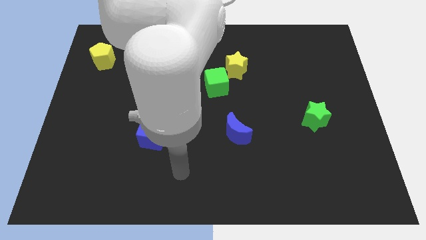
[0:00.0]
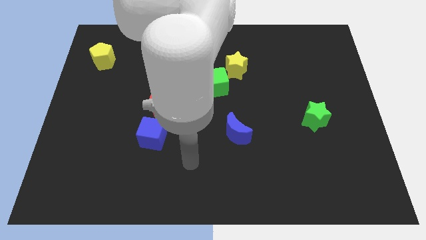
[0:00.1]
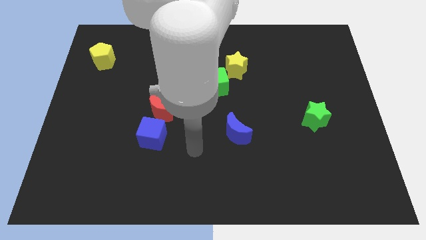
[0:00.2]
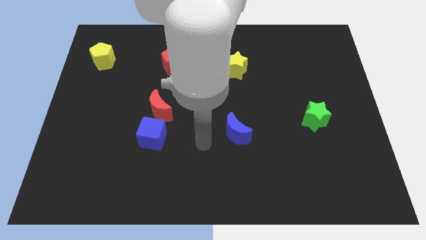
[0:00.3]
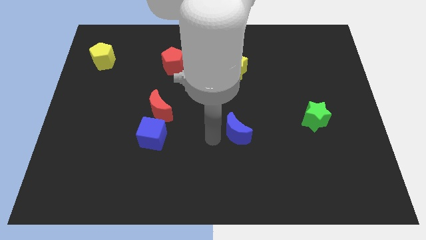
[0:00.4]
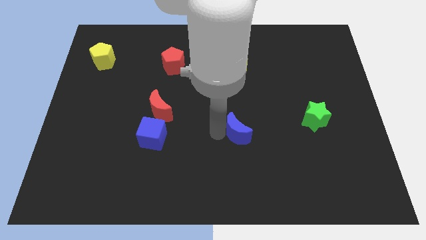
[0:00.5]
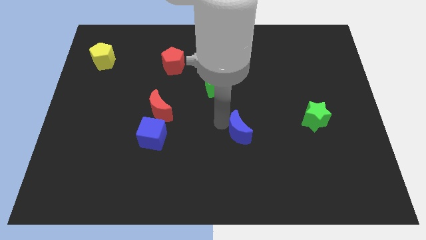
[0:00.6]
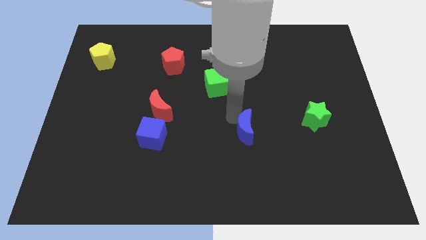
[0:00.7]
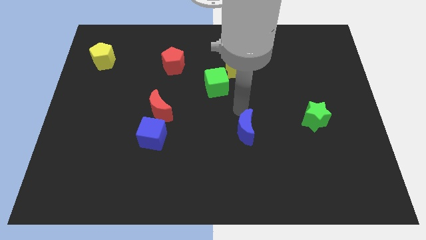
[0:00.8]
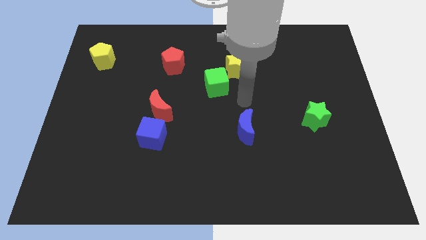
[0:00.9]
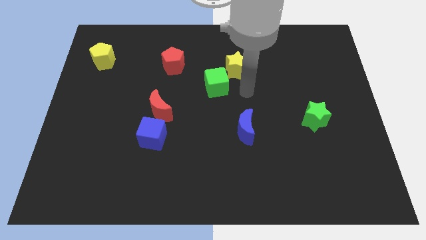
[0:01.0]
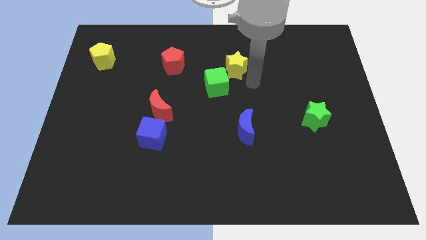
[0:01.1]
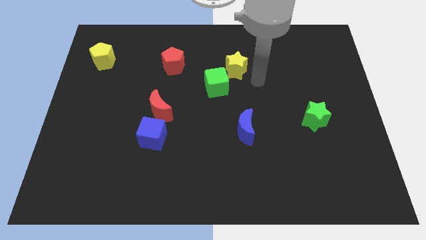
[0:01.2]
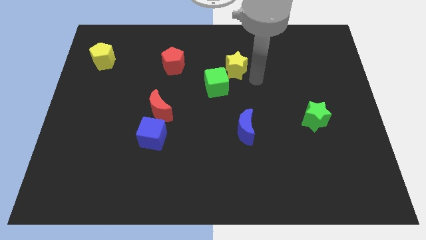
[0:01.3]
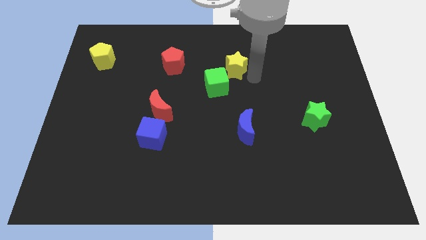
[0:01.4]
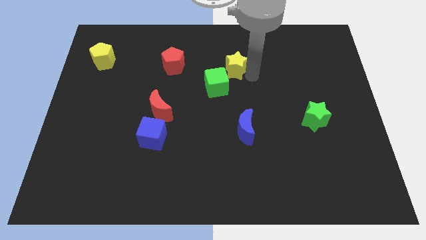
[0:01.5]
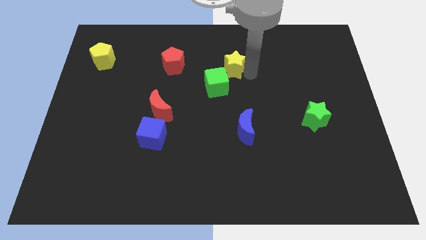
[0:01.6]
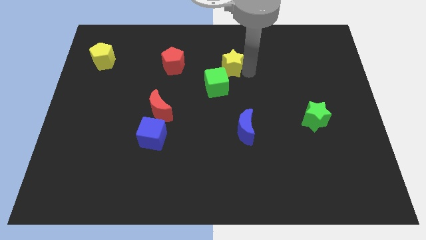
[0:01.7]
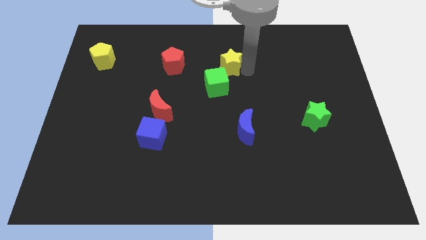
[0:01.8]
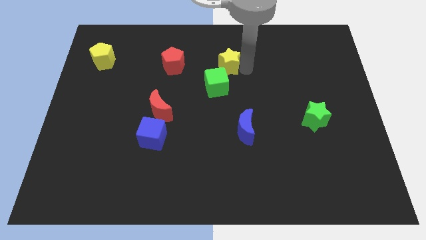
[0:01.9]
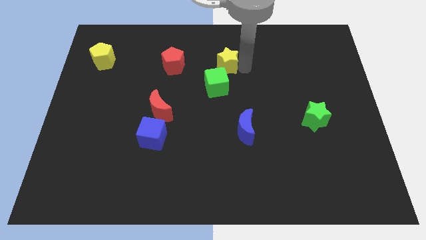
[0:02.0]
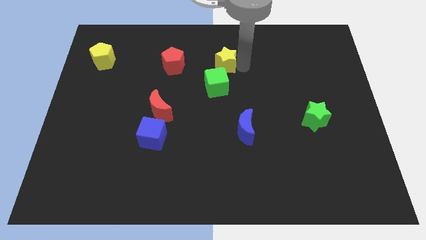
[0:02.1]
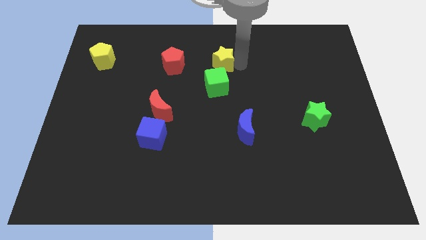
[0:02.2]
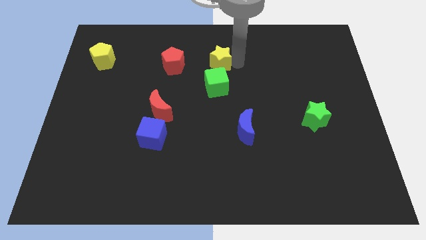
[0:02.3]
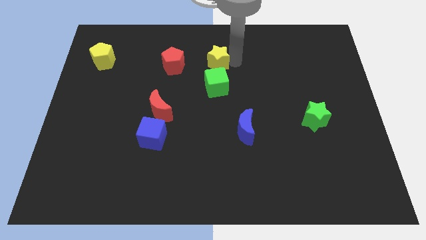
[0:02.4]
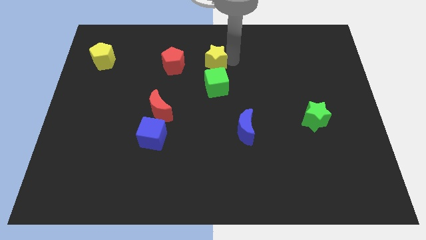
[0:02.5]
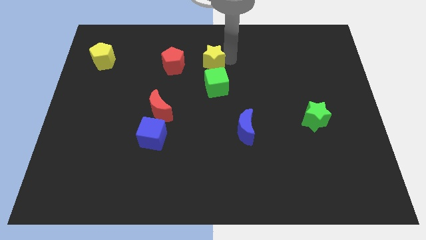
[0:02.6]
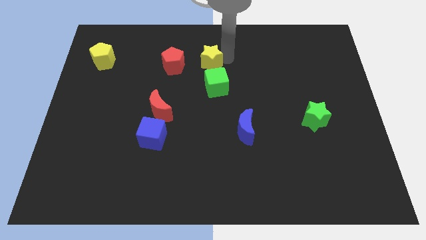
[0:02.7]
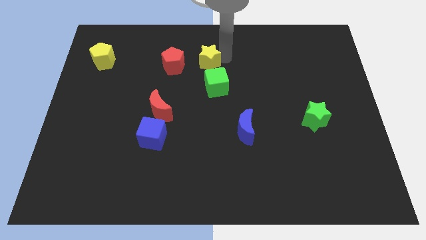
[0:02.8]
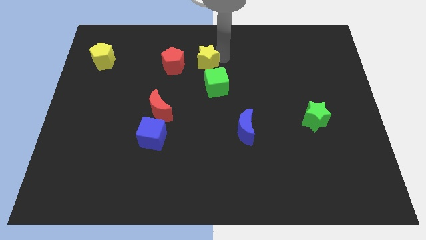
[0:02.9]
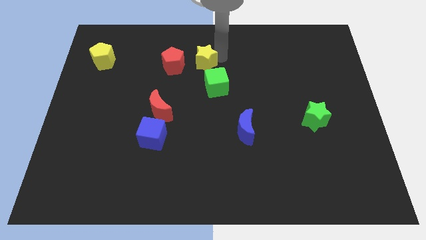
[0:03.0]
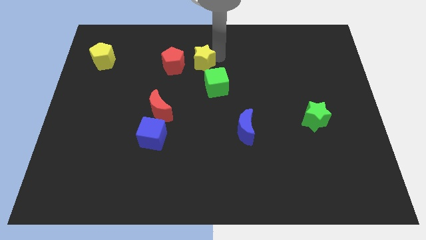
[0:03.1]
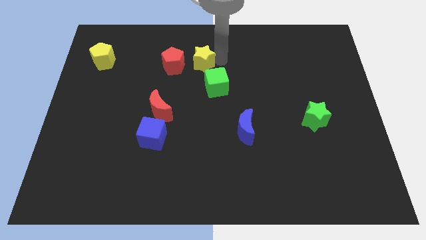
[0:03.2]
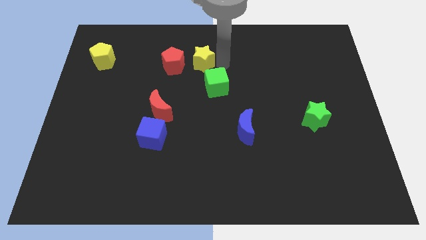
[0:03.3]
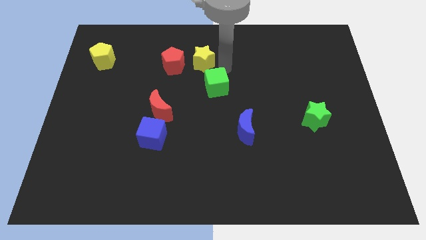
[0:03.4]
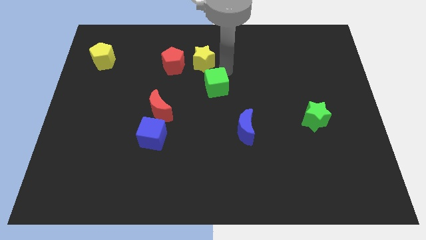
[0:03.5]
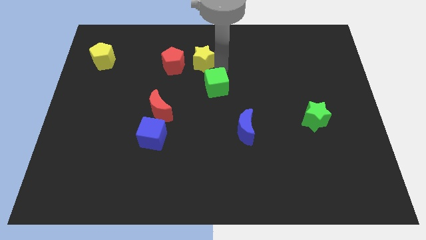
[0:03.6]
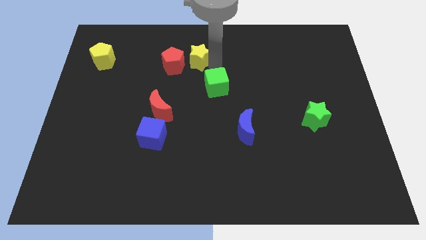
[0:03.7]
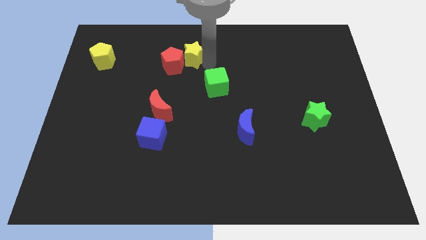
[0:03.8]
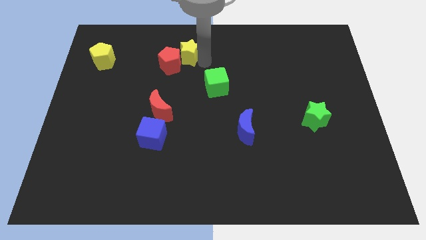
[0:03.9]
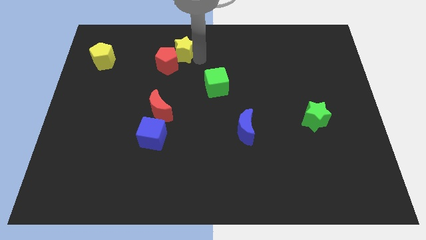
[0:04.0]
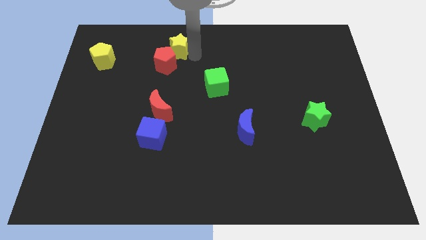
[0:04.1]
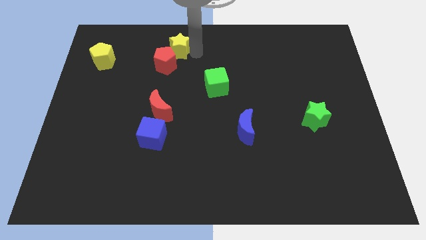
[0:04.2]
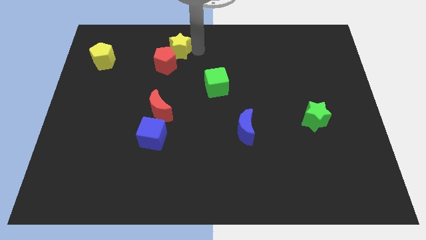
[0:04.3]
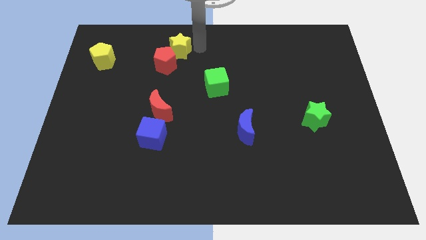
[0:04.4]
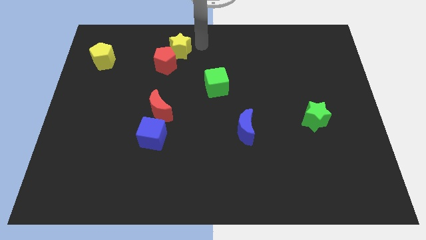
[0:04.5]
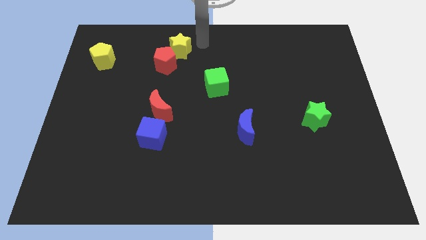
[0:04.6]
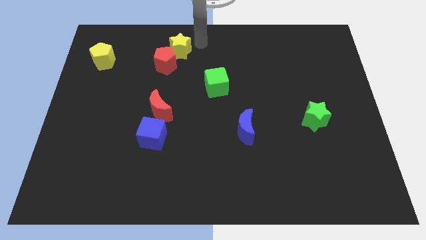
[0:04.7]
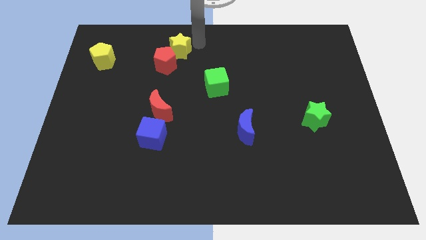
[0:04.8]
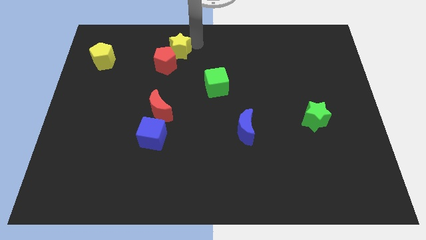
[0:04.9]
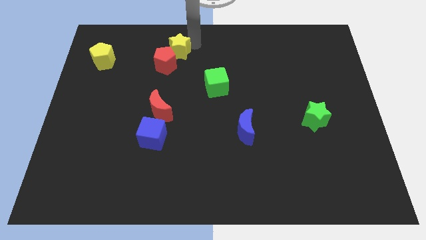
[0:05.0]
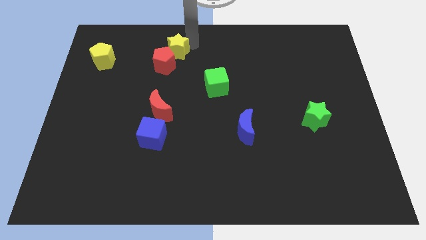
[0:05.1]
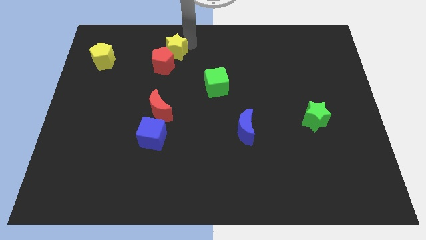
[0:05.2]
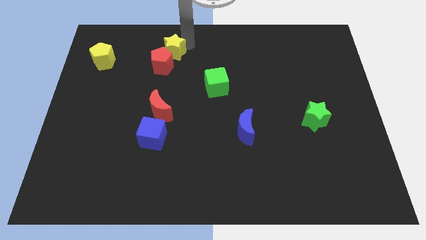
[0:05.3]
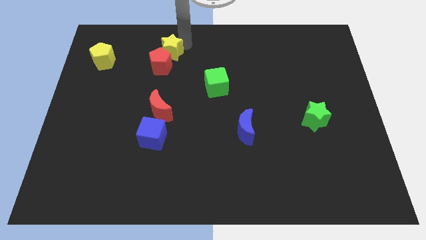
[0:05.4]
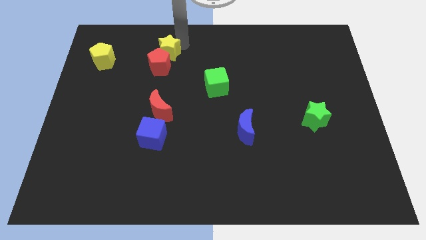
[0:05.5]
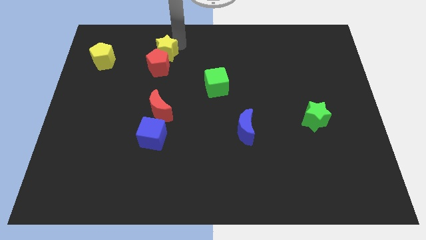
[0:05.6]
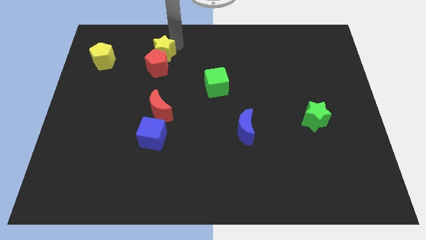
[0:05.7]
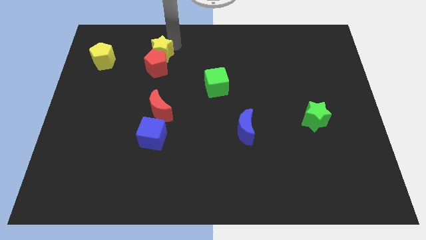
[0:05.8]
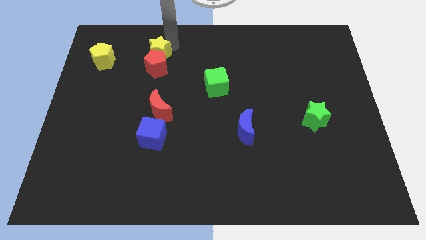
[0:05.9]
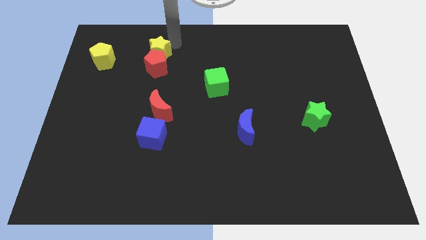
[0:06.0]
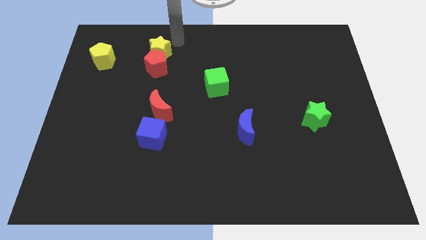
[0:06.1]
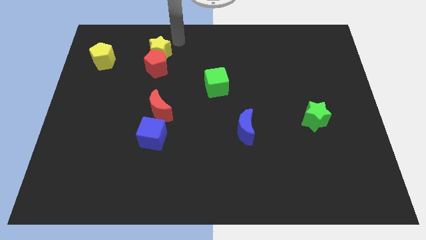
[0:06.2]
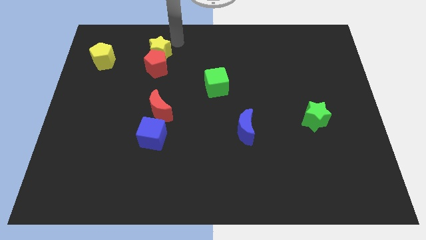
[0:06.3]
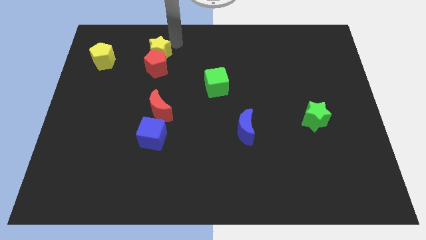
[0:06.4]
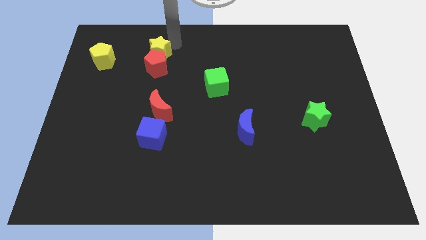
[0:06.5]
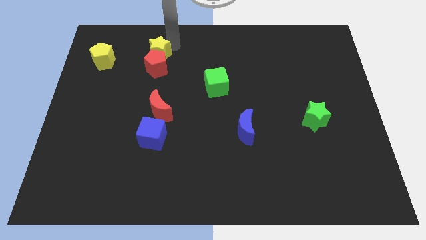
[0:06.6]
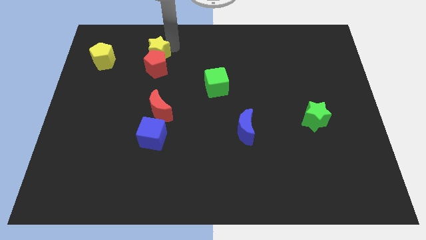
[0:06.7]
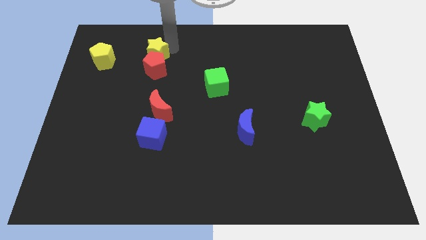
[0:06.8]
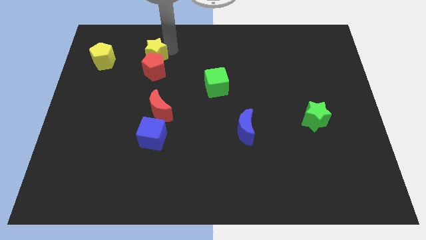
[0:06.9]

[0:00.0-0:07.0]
push the yellow star to the left

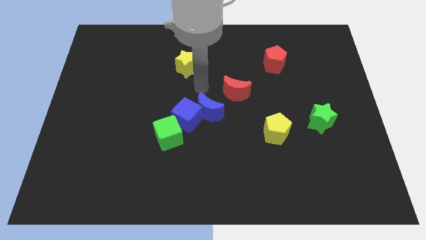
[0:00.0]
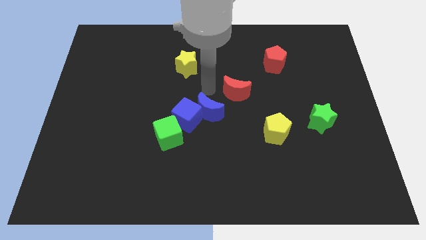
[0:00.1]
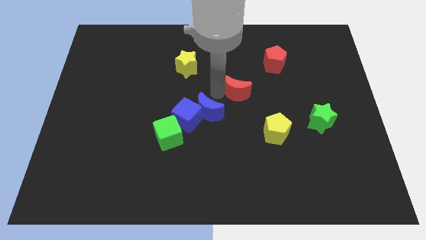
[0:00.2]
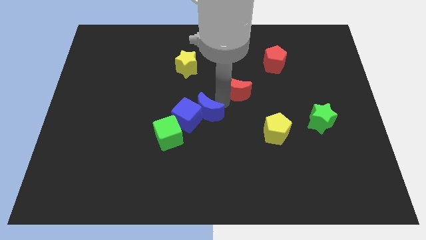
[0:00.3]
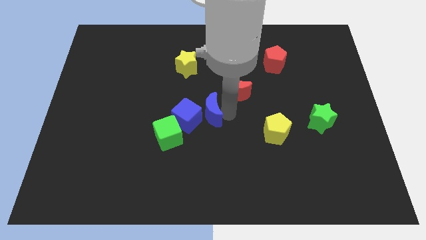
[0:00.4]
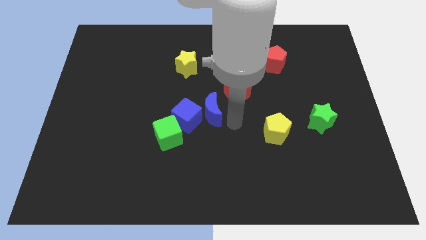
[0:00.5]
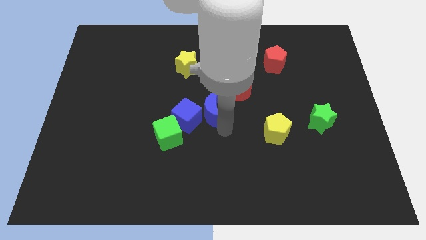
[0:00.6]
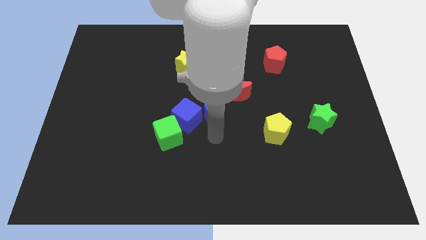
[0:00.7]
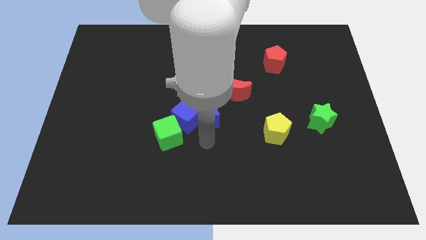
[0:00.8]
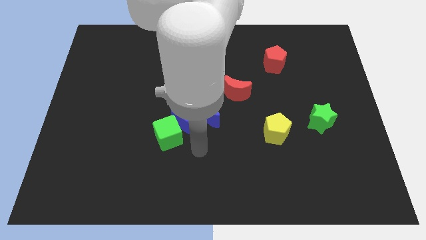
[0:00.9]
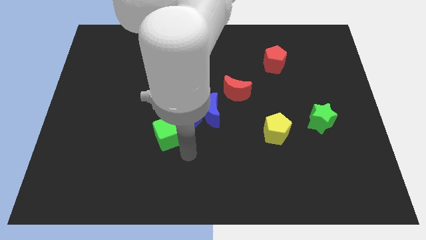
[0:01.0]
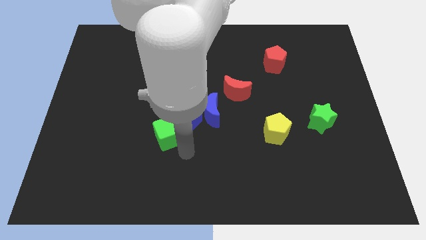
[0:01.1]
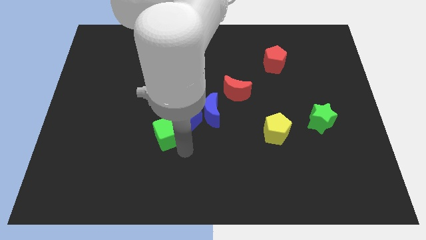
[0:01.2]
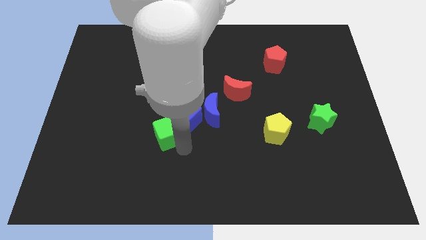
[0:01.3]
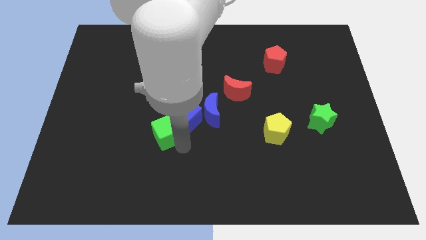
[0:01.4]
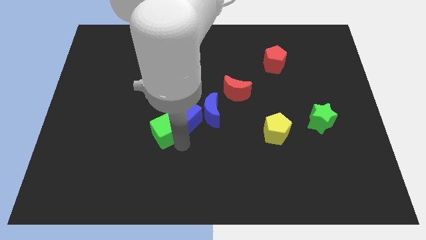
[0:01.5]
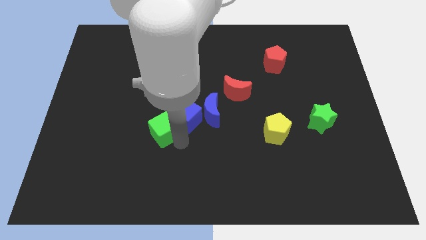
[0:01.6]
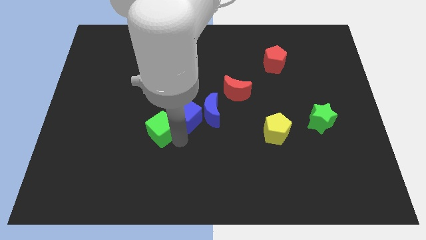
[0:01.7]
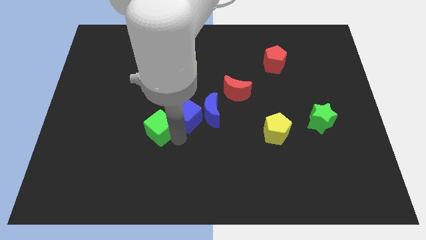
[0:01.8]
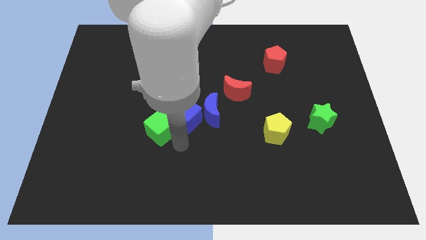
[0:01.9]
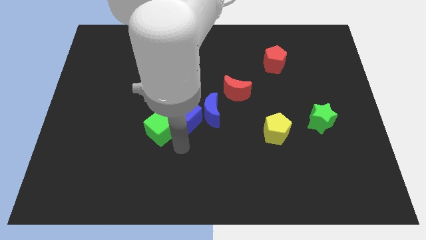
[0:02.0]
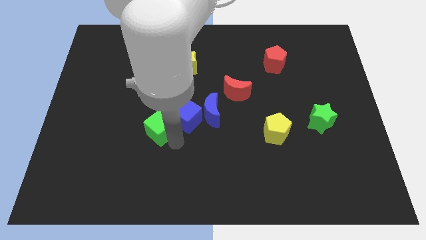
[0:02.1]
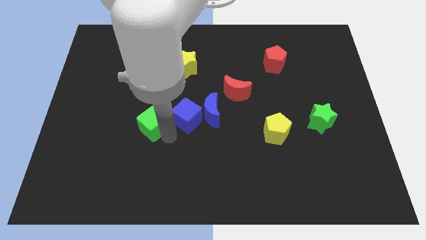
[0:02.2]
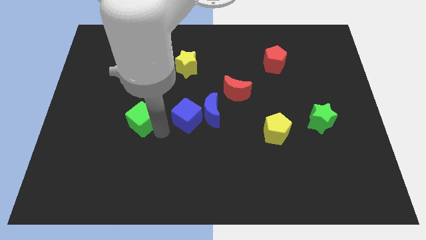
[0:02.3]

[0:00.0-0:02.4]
slide the green cube upwards and to the left somewhat
